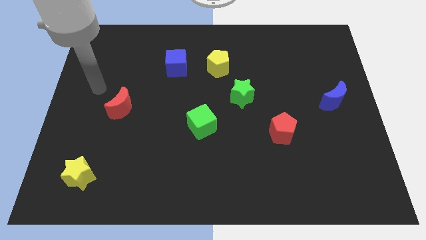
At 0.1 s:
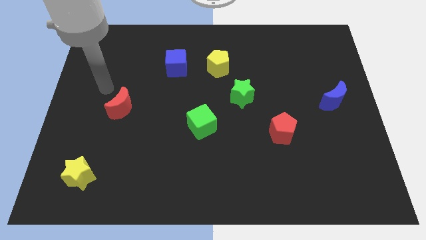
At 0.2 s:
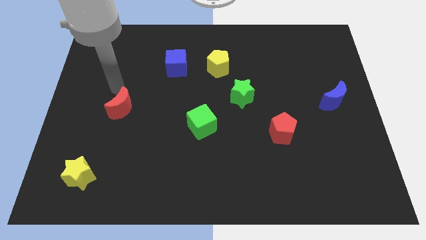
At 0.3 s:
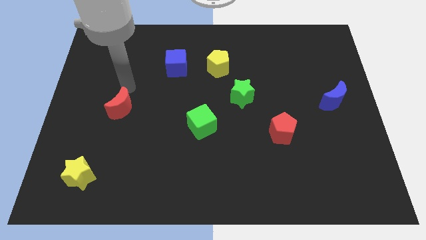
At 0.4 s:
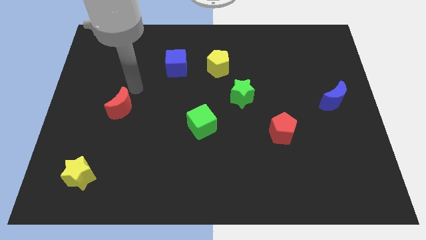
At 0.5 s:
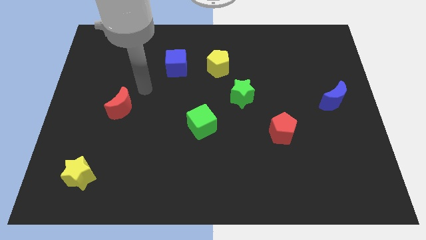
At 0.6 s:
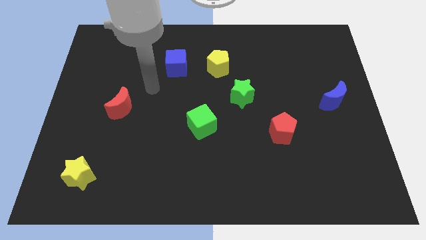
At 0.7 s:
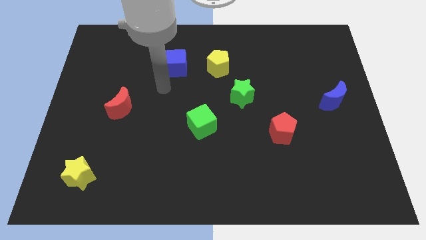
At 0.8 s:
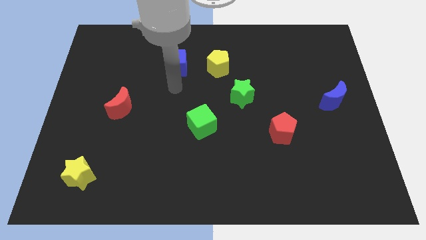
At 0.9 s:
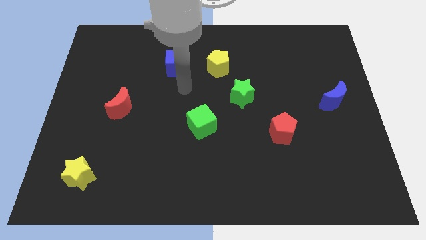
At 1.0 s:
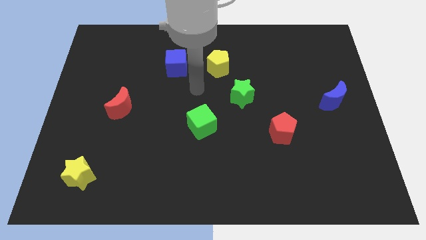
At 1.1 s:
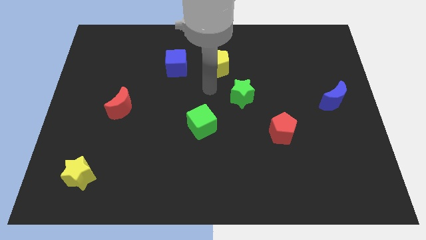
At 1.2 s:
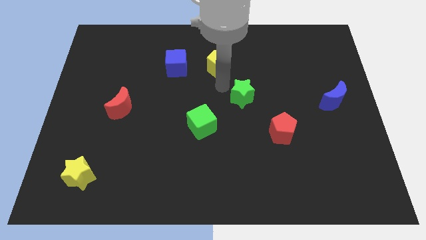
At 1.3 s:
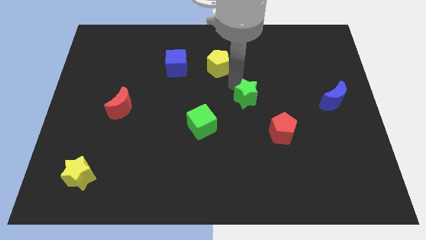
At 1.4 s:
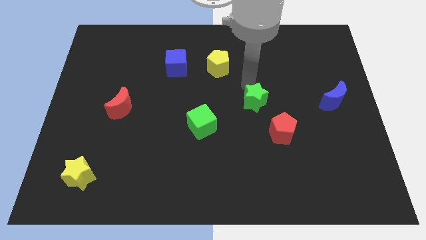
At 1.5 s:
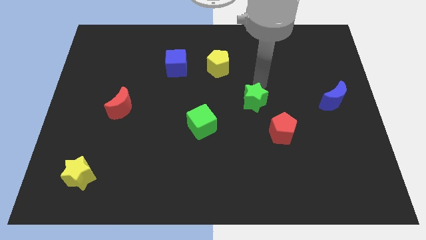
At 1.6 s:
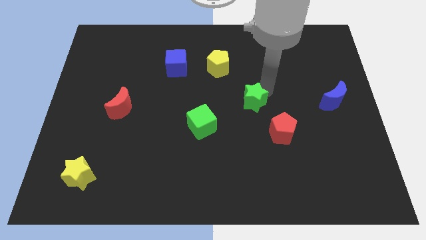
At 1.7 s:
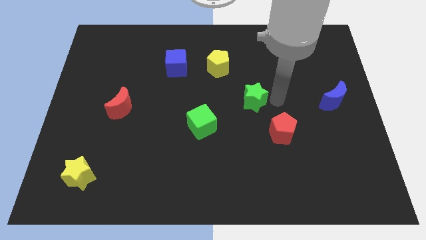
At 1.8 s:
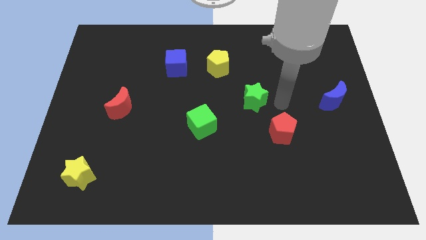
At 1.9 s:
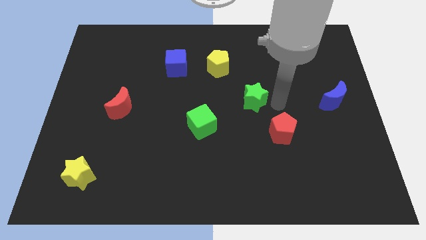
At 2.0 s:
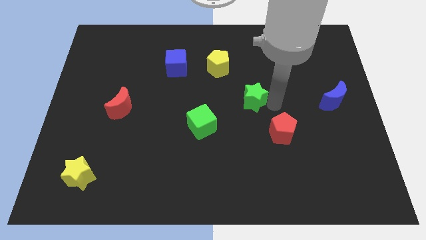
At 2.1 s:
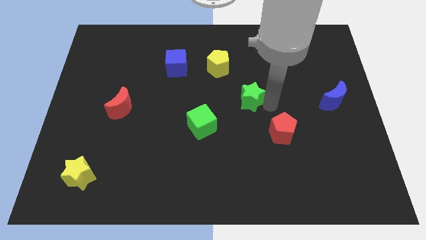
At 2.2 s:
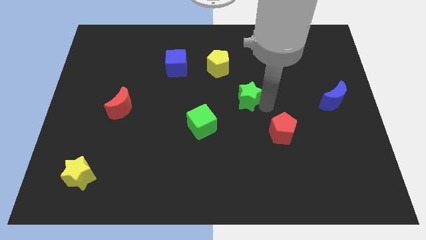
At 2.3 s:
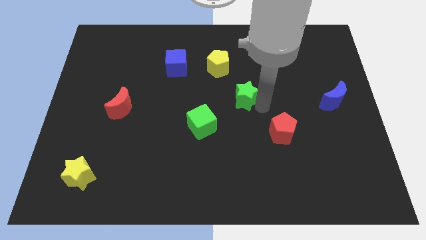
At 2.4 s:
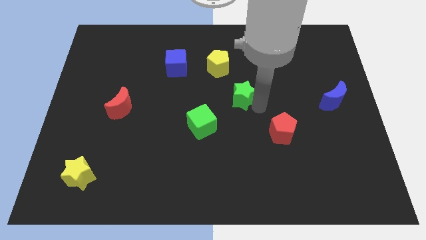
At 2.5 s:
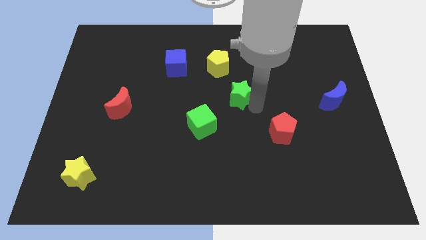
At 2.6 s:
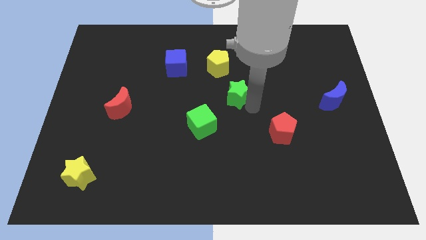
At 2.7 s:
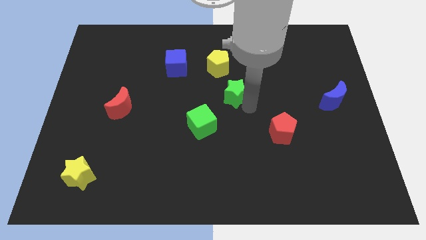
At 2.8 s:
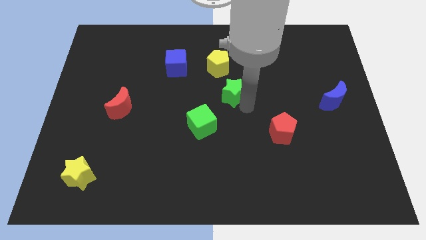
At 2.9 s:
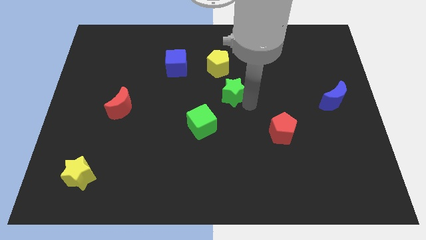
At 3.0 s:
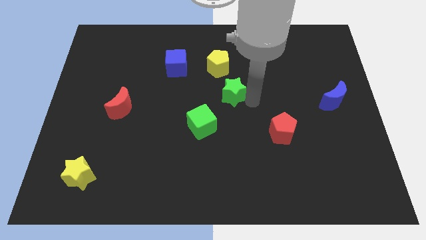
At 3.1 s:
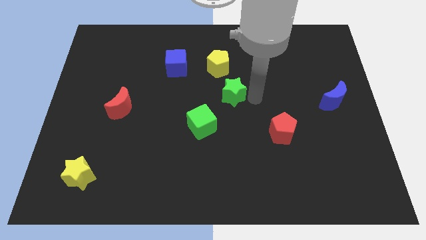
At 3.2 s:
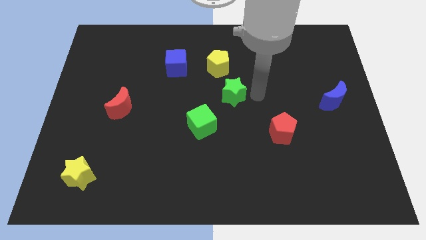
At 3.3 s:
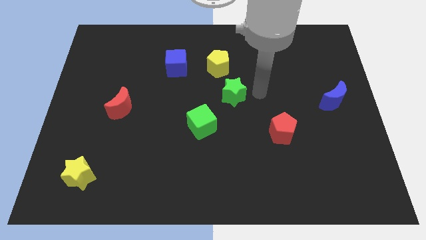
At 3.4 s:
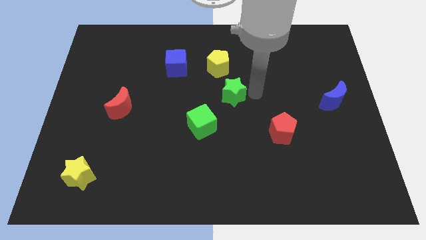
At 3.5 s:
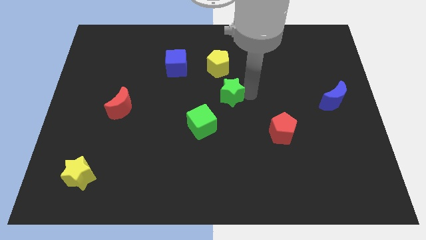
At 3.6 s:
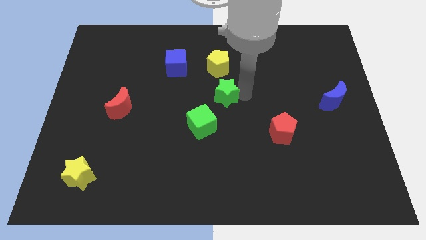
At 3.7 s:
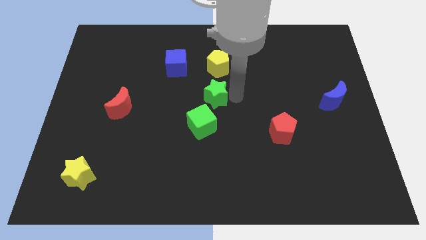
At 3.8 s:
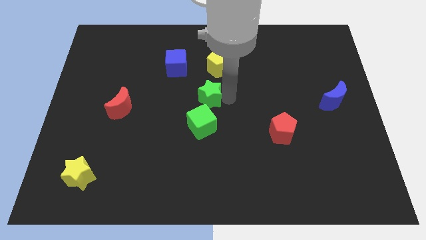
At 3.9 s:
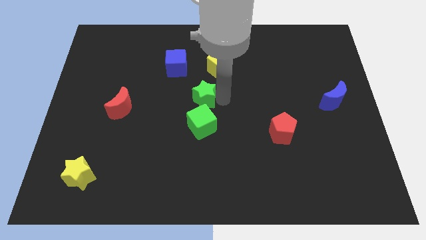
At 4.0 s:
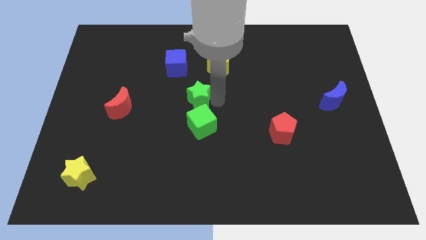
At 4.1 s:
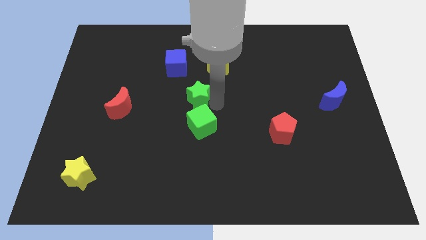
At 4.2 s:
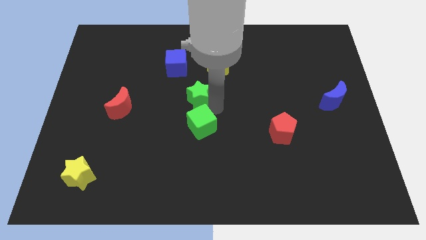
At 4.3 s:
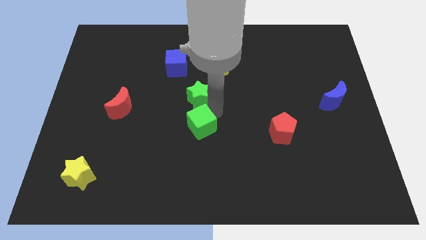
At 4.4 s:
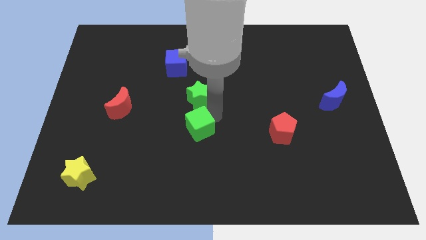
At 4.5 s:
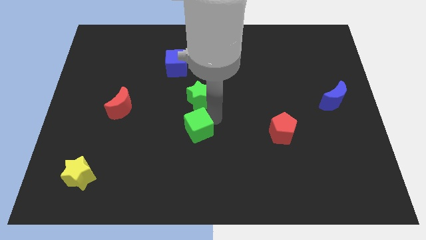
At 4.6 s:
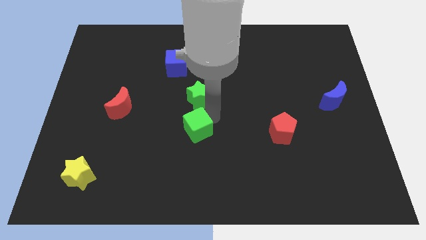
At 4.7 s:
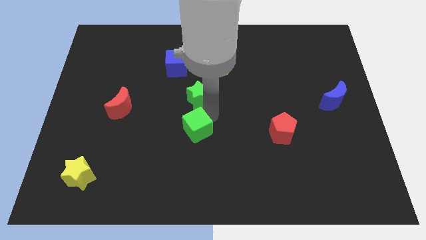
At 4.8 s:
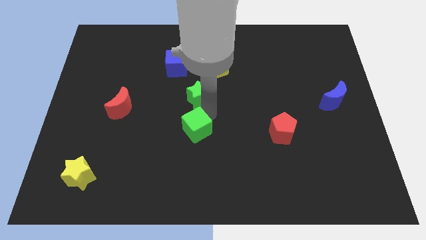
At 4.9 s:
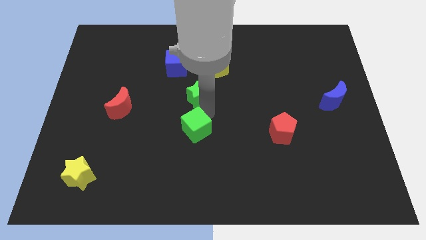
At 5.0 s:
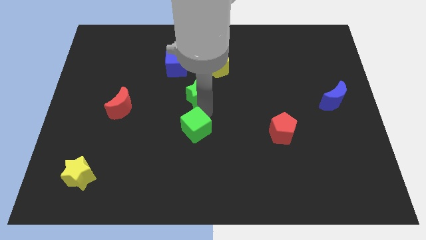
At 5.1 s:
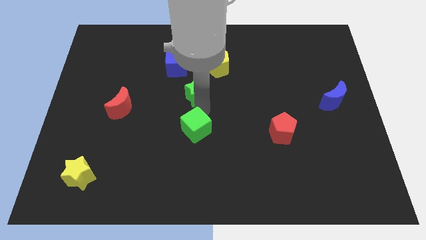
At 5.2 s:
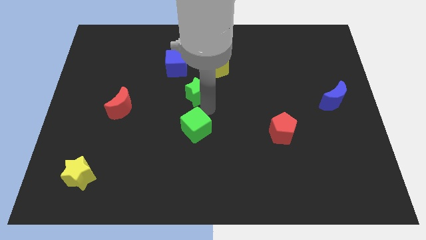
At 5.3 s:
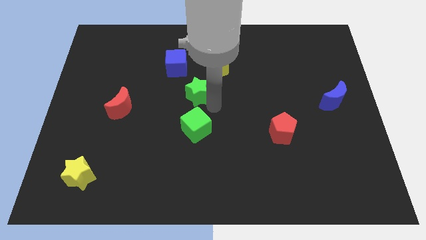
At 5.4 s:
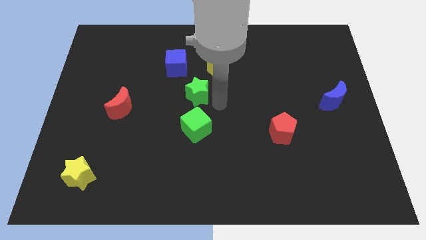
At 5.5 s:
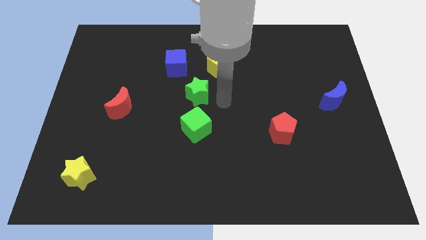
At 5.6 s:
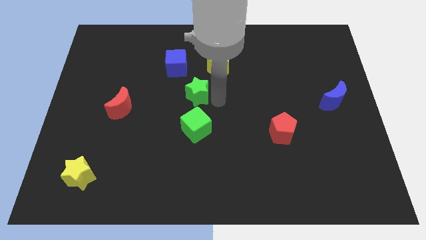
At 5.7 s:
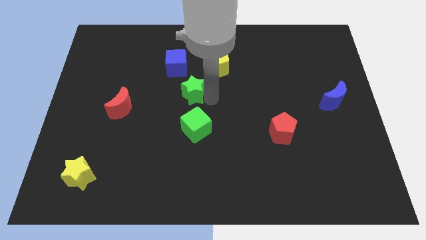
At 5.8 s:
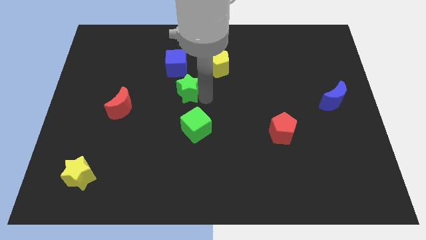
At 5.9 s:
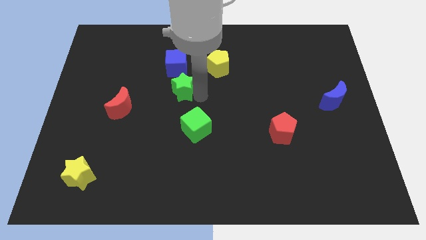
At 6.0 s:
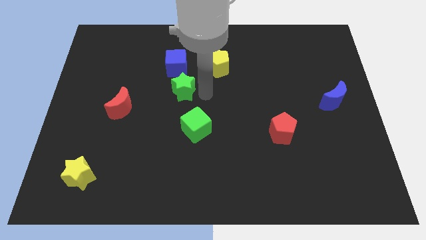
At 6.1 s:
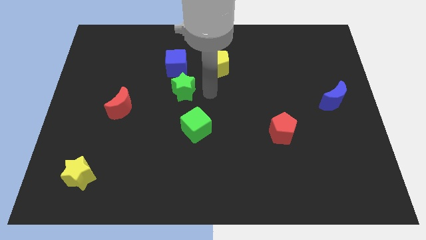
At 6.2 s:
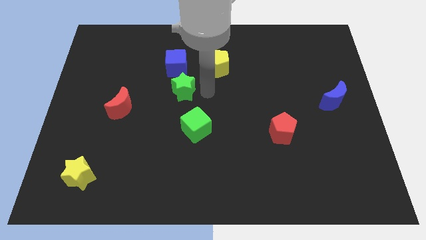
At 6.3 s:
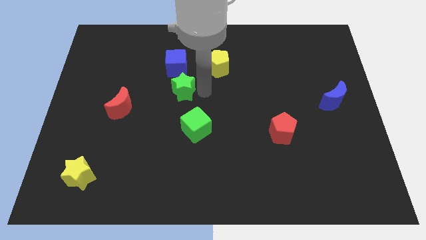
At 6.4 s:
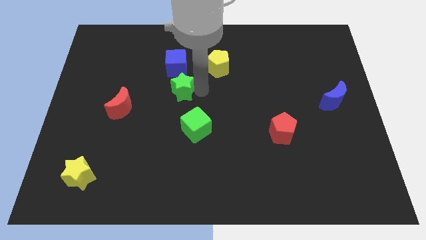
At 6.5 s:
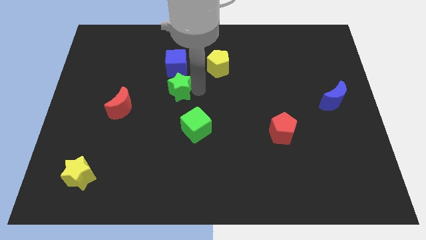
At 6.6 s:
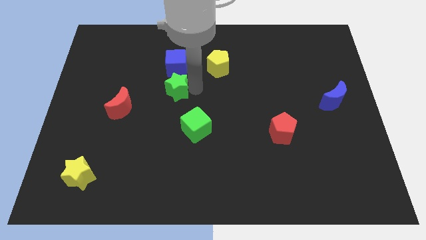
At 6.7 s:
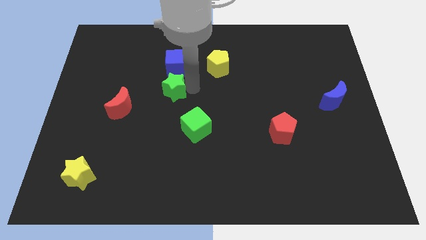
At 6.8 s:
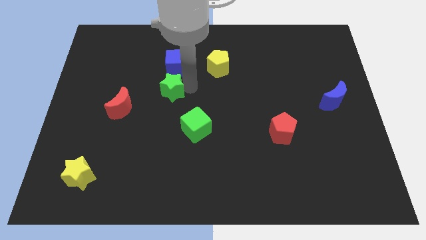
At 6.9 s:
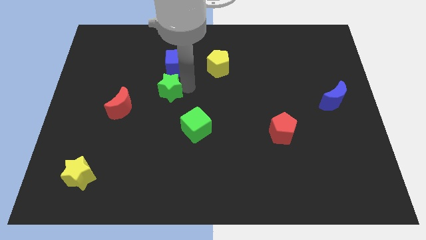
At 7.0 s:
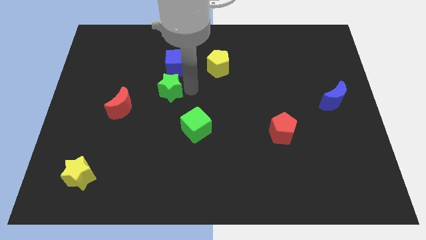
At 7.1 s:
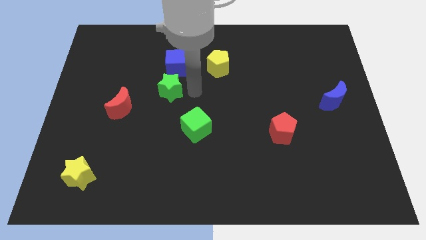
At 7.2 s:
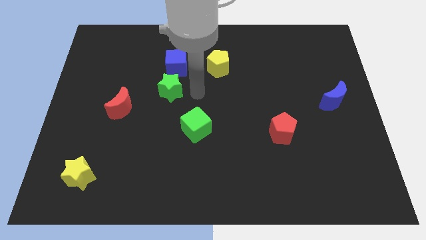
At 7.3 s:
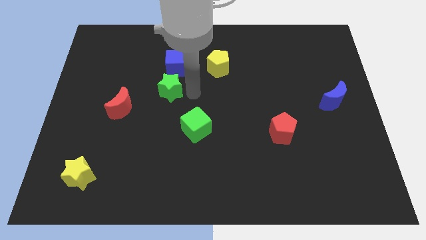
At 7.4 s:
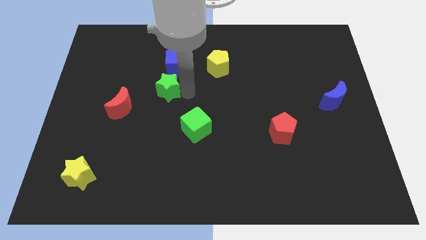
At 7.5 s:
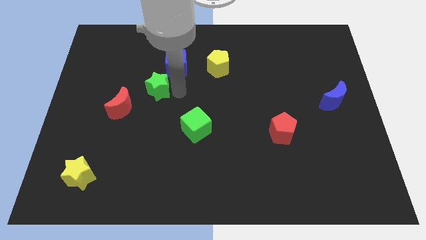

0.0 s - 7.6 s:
push the green star left

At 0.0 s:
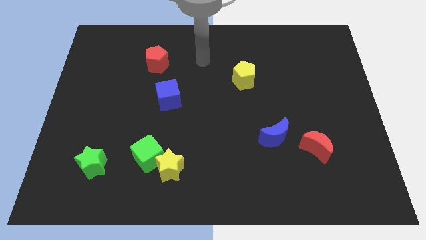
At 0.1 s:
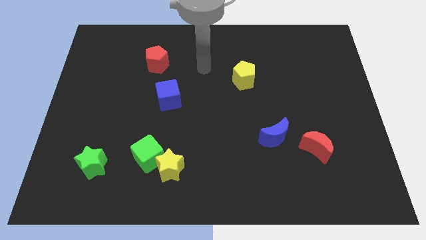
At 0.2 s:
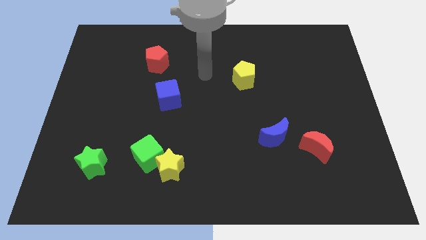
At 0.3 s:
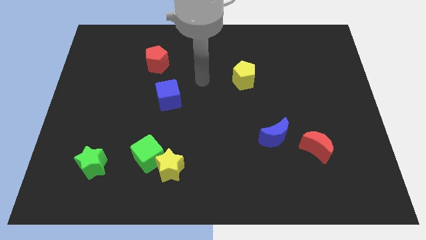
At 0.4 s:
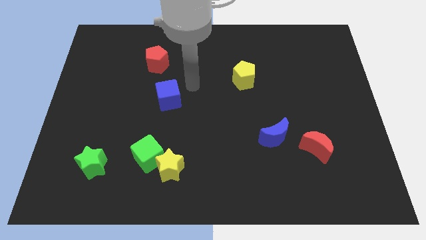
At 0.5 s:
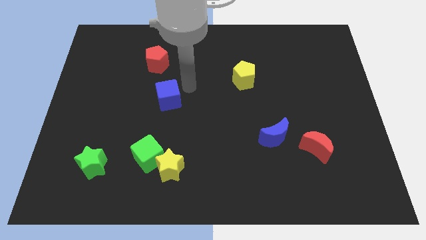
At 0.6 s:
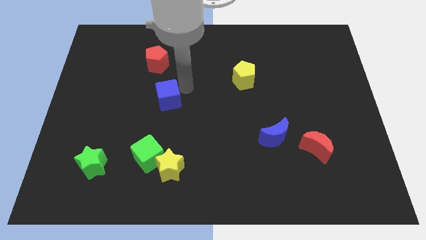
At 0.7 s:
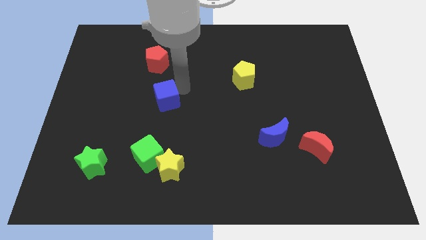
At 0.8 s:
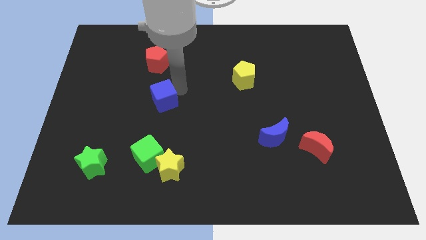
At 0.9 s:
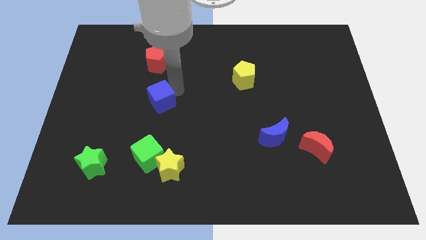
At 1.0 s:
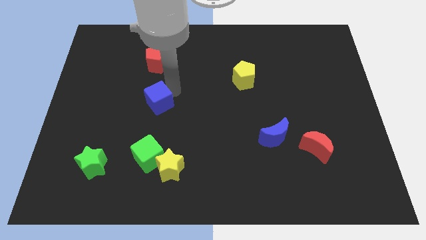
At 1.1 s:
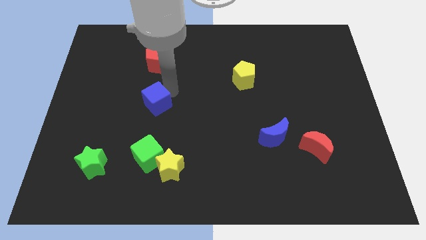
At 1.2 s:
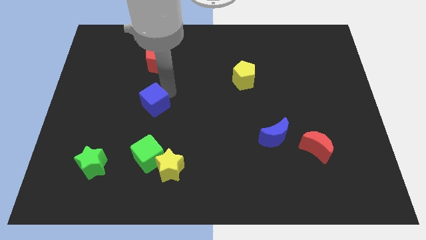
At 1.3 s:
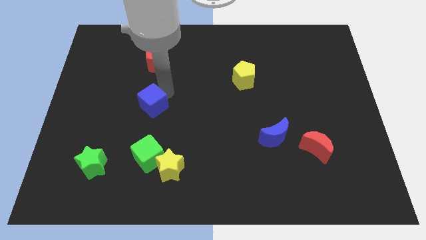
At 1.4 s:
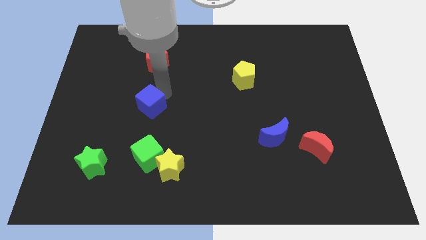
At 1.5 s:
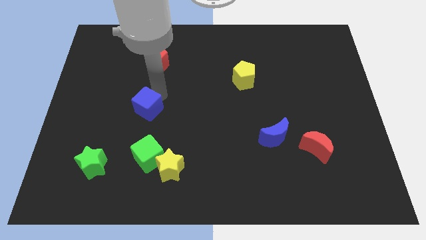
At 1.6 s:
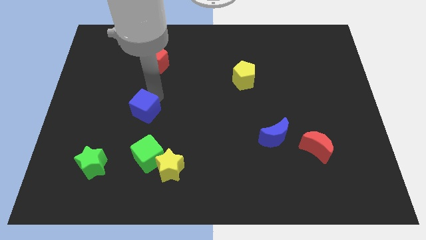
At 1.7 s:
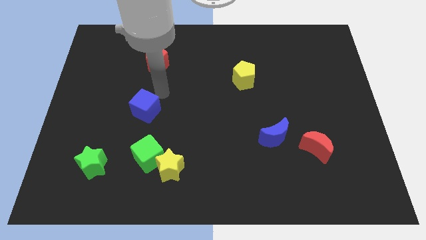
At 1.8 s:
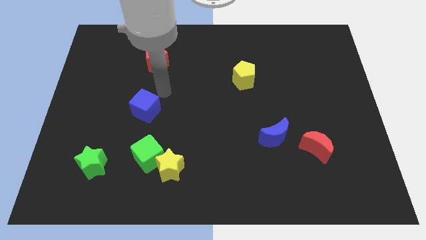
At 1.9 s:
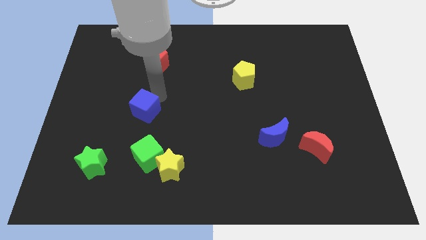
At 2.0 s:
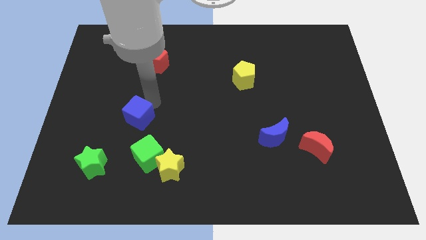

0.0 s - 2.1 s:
slightly move the blue cube downwards and to the left
